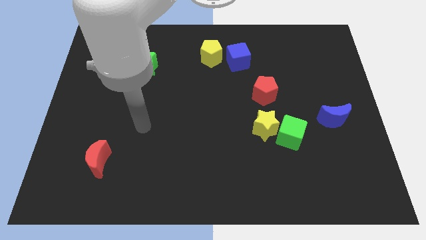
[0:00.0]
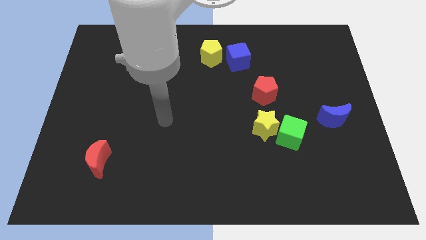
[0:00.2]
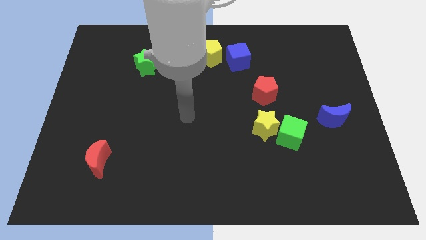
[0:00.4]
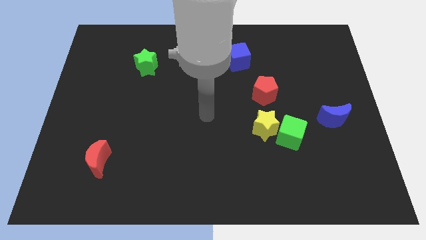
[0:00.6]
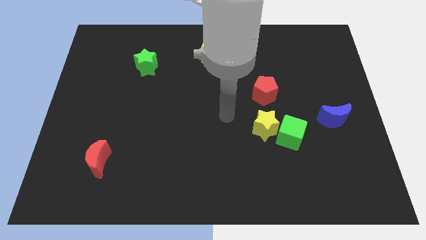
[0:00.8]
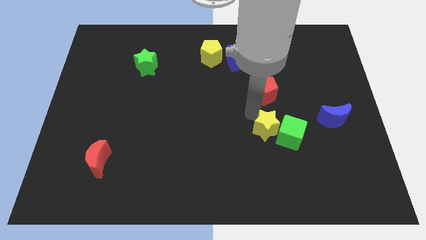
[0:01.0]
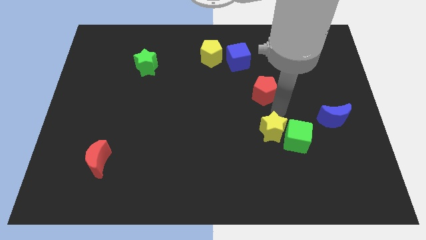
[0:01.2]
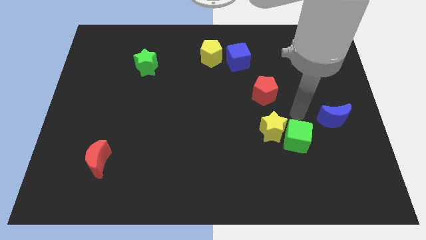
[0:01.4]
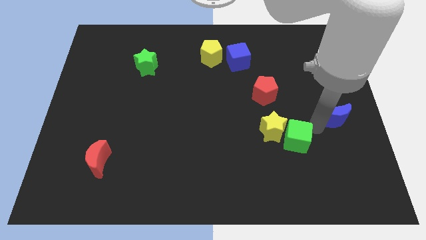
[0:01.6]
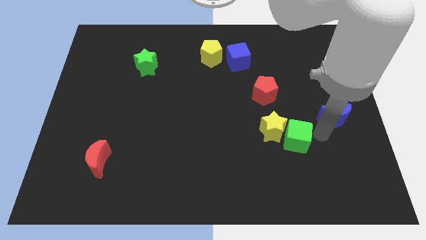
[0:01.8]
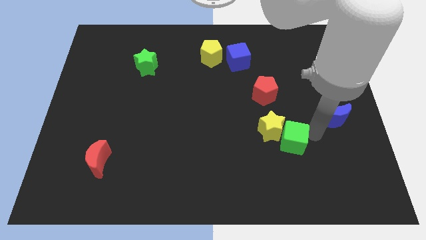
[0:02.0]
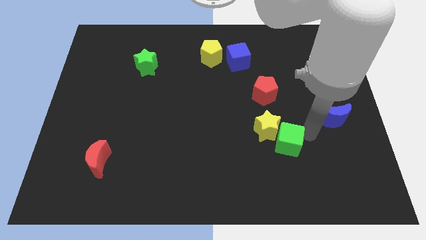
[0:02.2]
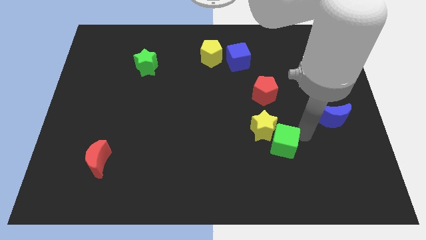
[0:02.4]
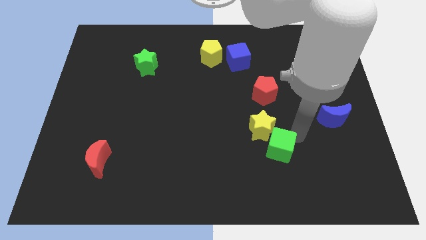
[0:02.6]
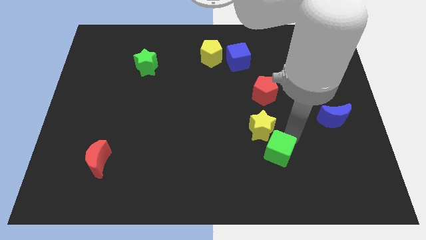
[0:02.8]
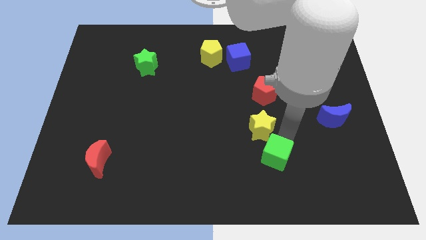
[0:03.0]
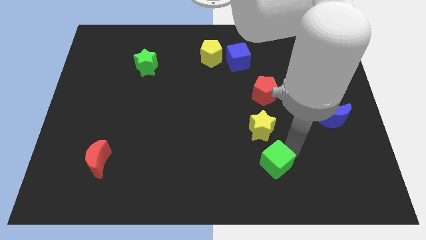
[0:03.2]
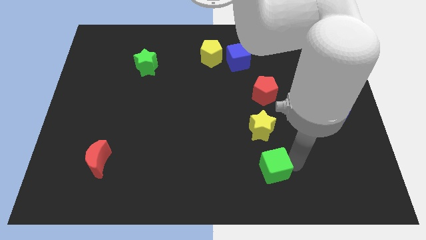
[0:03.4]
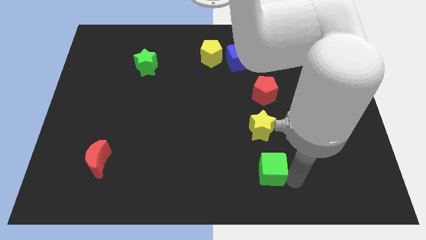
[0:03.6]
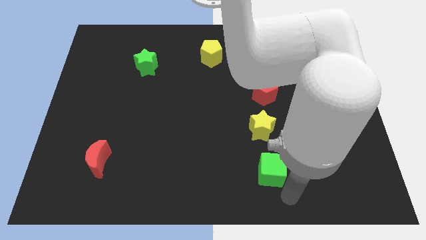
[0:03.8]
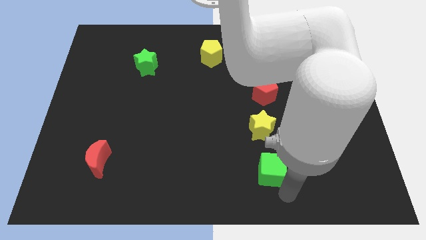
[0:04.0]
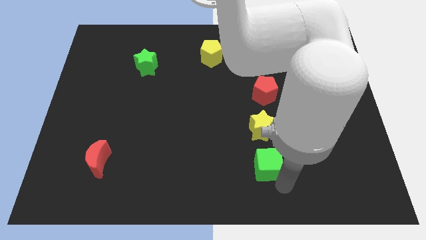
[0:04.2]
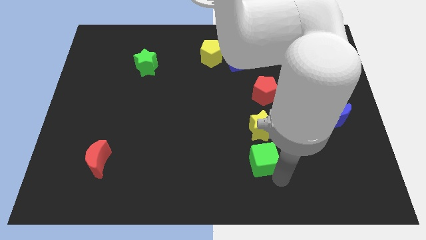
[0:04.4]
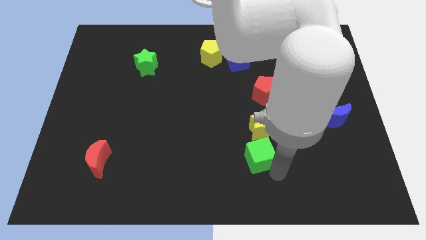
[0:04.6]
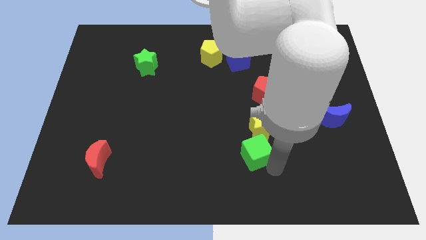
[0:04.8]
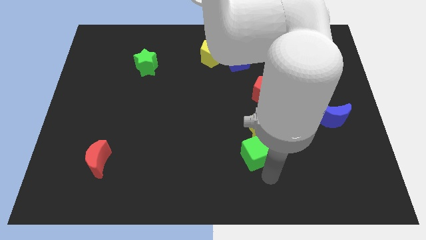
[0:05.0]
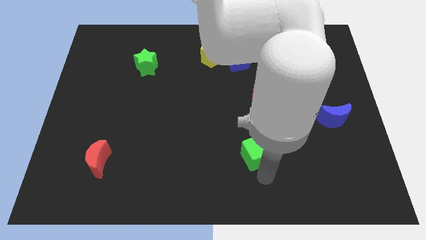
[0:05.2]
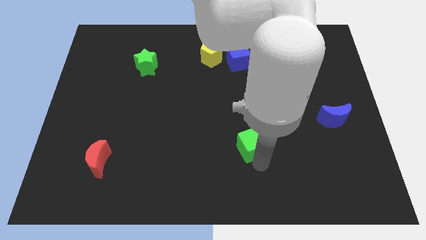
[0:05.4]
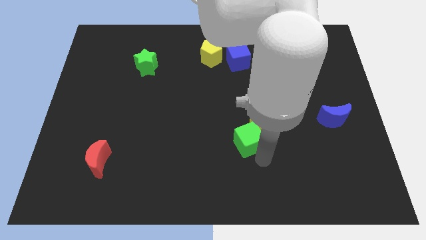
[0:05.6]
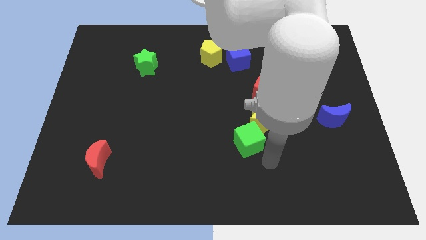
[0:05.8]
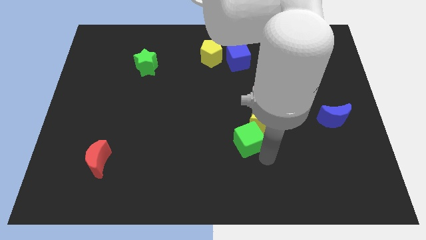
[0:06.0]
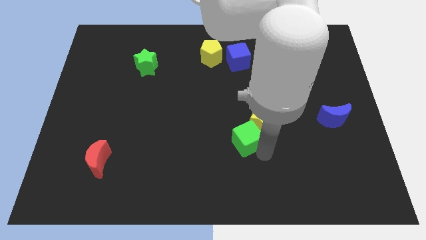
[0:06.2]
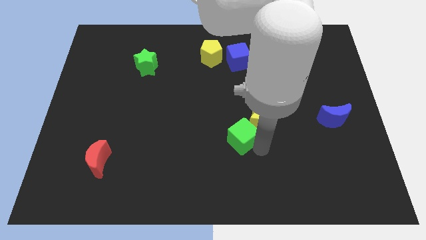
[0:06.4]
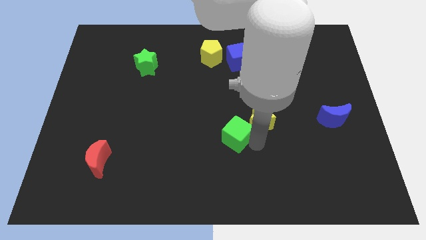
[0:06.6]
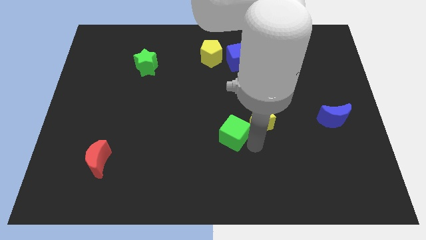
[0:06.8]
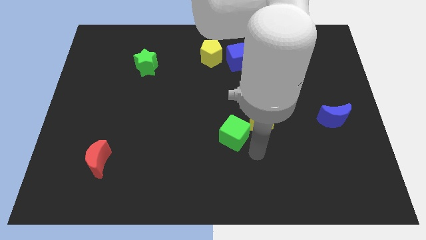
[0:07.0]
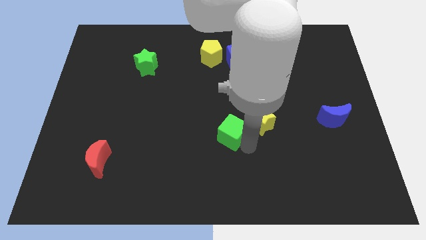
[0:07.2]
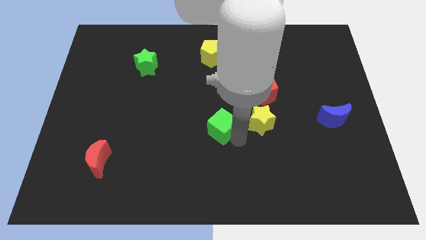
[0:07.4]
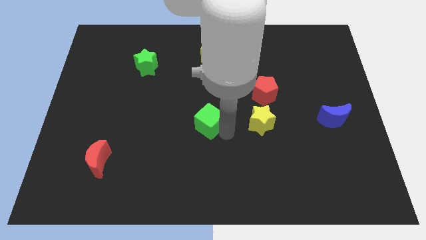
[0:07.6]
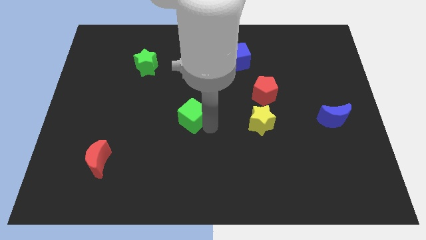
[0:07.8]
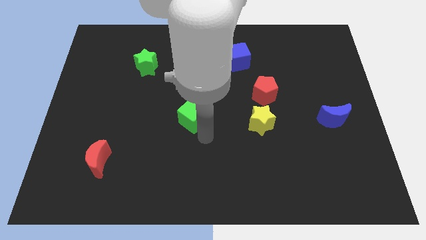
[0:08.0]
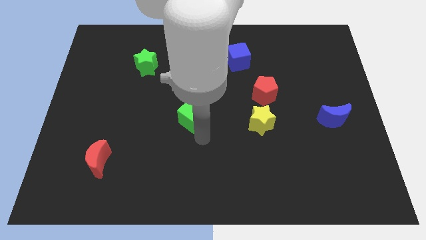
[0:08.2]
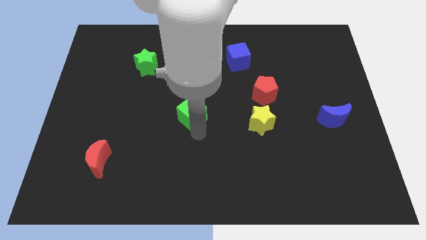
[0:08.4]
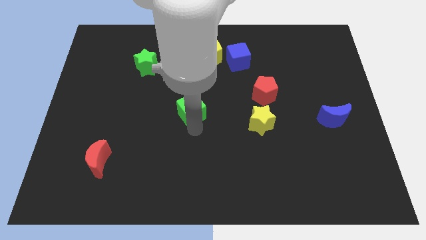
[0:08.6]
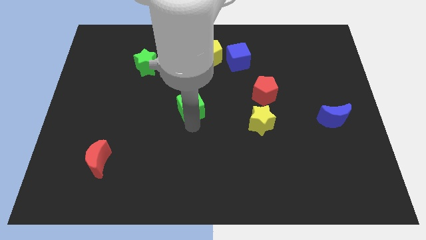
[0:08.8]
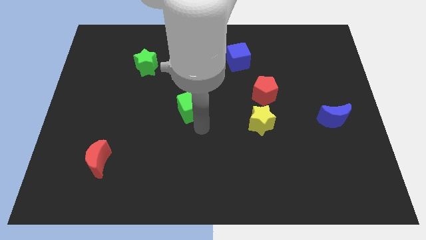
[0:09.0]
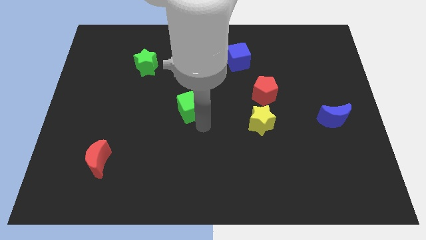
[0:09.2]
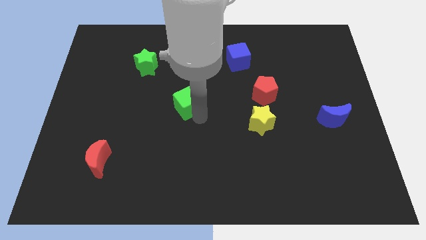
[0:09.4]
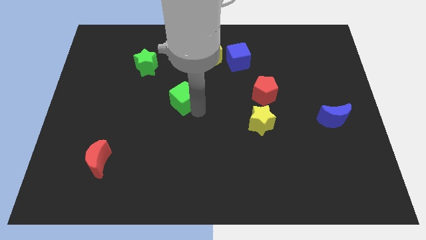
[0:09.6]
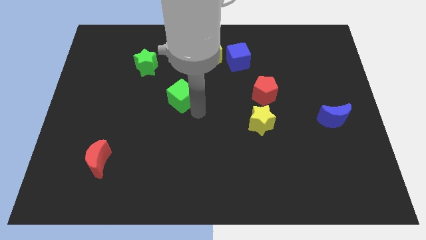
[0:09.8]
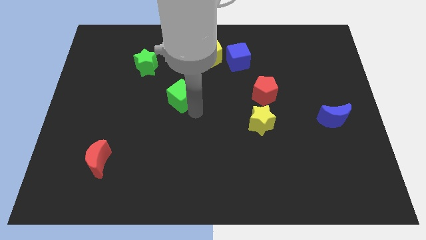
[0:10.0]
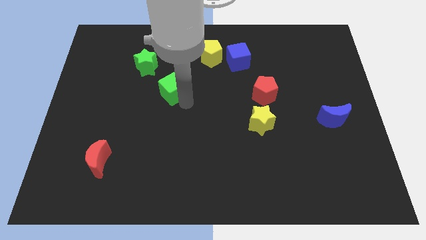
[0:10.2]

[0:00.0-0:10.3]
push the green cube diagonally down and to the right of the green star

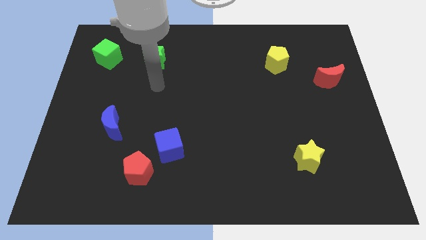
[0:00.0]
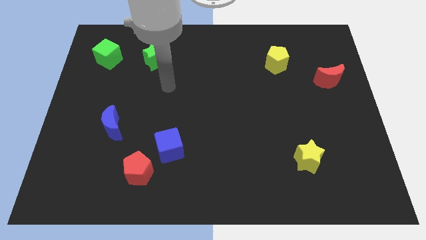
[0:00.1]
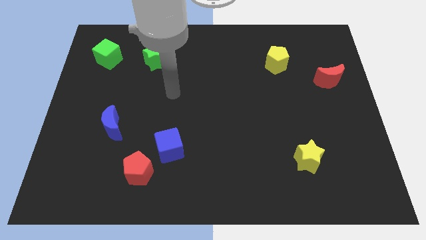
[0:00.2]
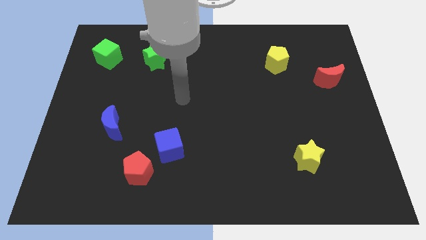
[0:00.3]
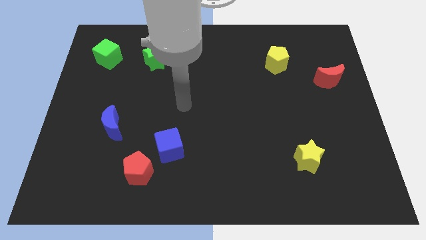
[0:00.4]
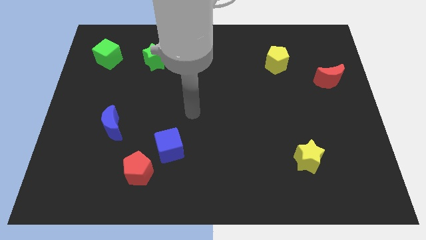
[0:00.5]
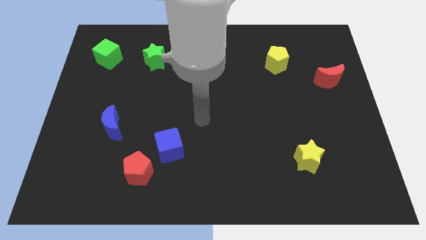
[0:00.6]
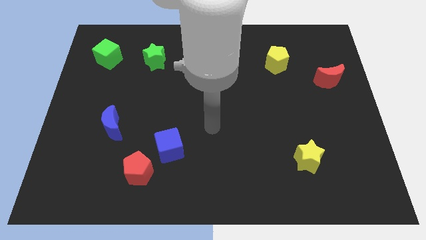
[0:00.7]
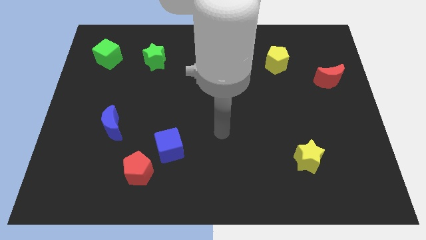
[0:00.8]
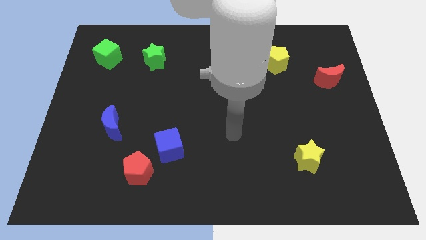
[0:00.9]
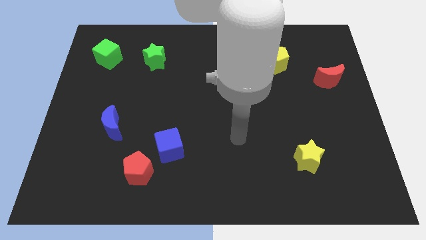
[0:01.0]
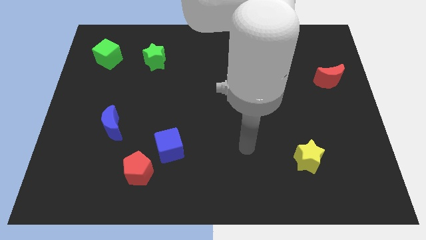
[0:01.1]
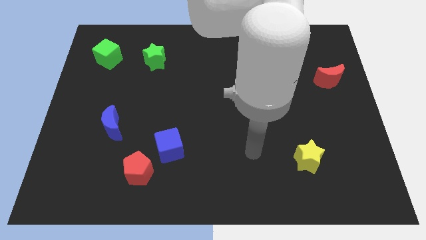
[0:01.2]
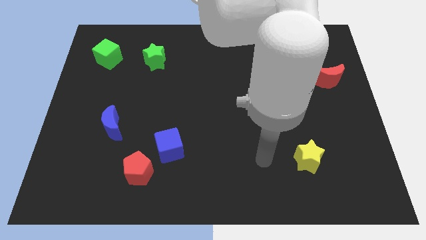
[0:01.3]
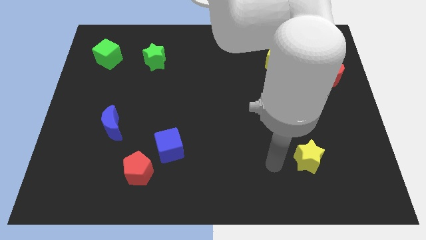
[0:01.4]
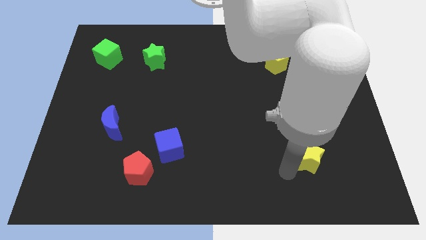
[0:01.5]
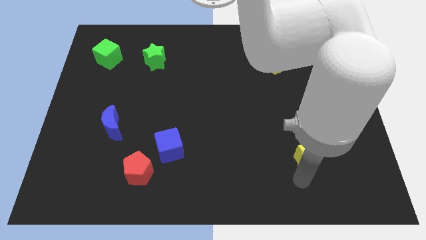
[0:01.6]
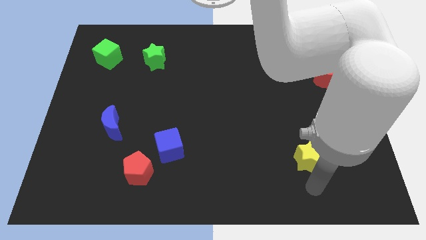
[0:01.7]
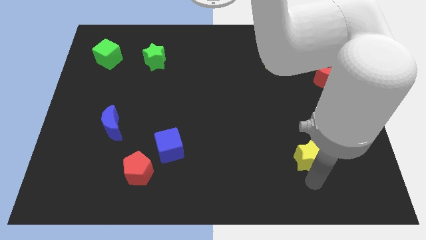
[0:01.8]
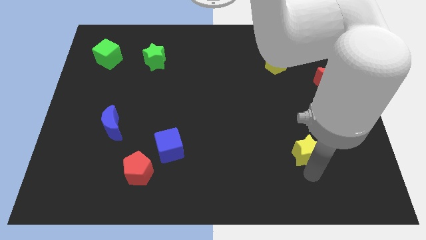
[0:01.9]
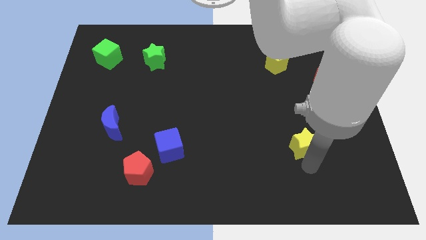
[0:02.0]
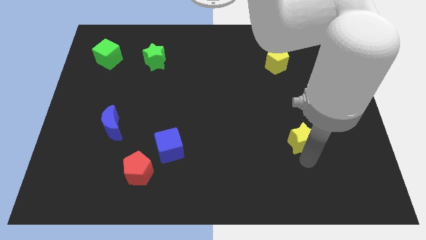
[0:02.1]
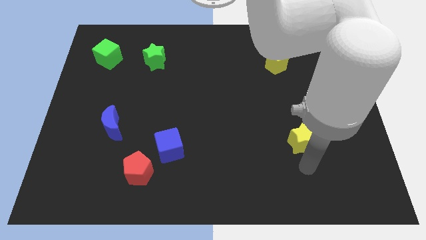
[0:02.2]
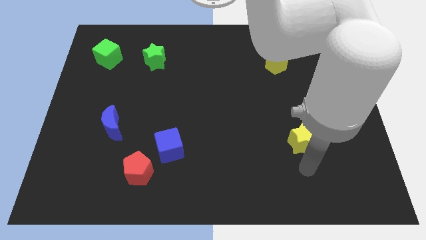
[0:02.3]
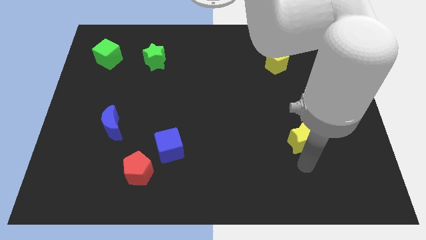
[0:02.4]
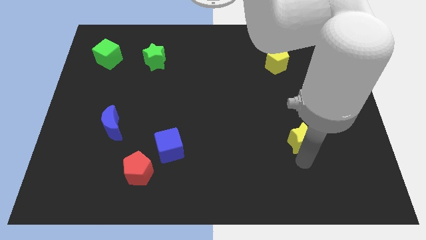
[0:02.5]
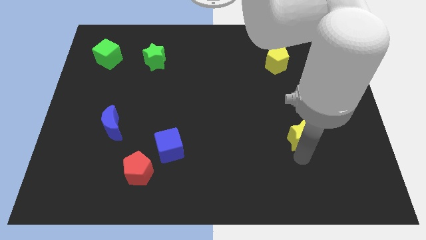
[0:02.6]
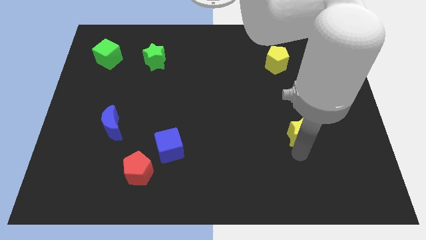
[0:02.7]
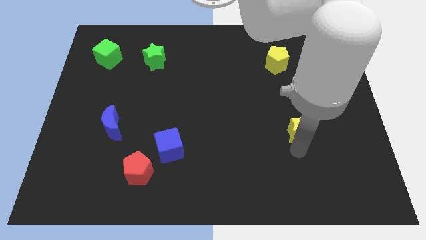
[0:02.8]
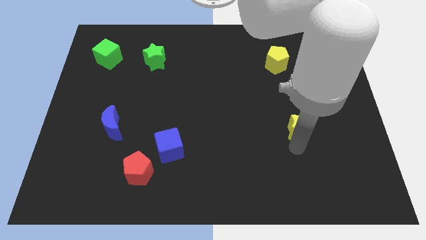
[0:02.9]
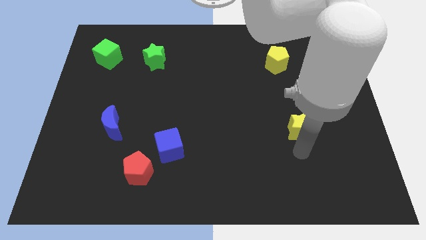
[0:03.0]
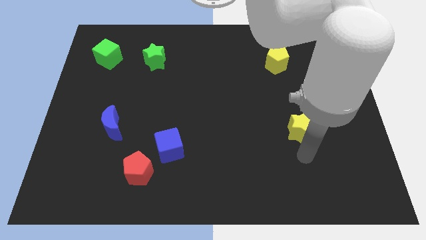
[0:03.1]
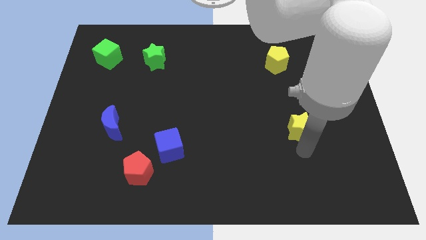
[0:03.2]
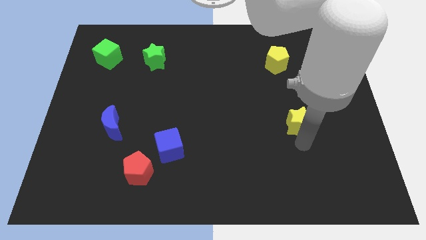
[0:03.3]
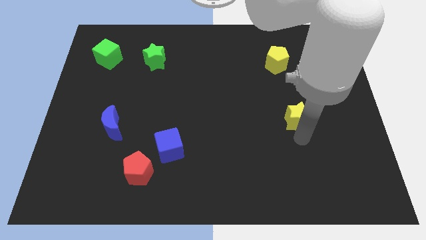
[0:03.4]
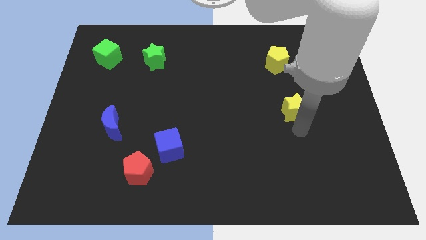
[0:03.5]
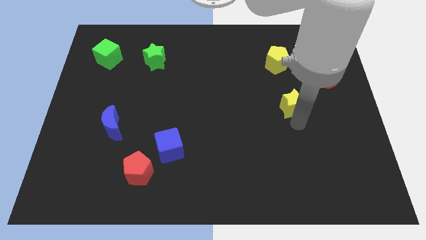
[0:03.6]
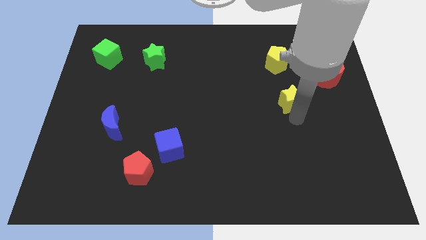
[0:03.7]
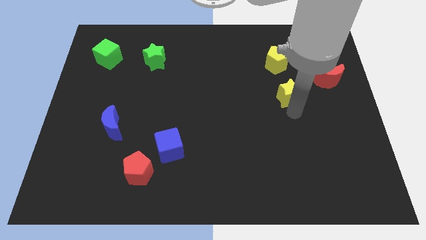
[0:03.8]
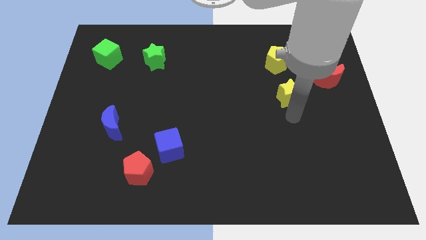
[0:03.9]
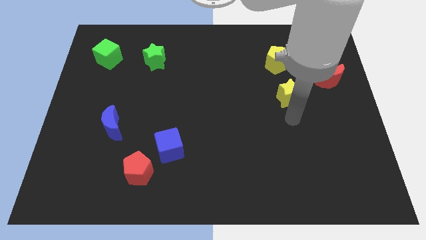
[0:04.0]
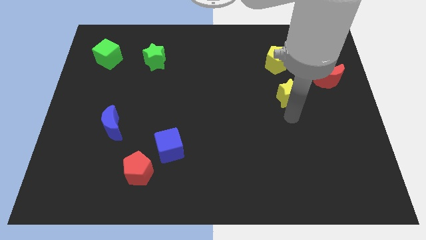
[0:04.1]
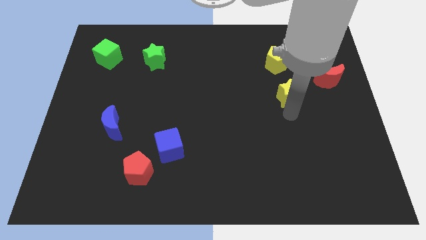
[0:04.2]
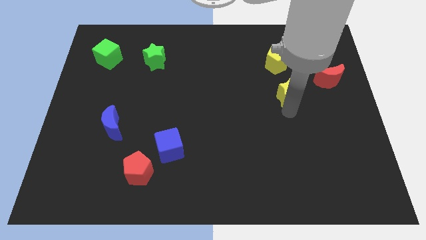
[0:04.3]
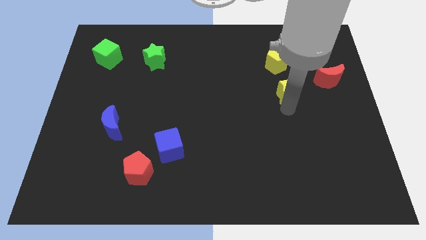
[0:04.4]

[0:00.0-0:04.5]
put the yellow star just left of the red moon
